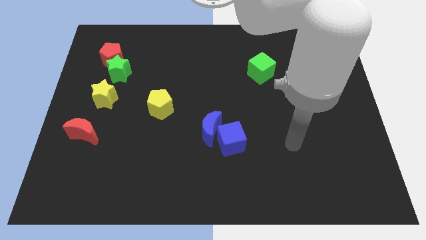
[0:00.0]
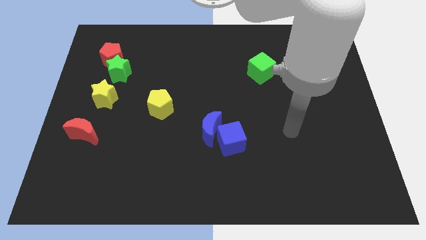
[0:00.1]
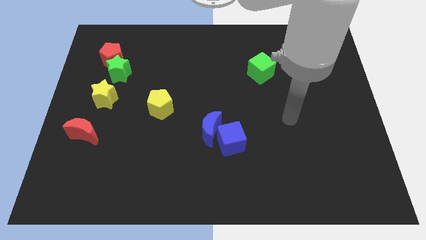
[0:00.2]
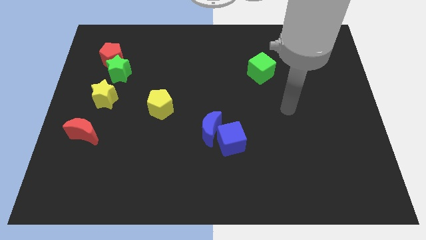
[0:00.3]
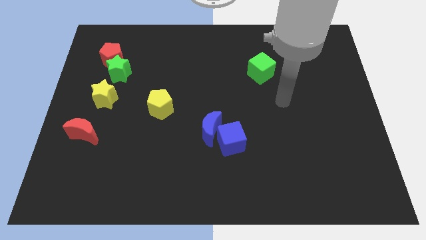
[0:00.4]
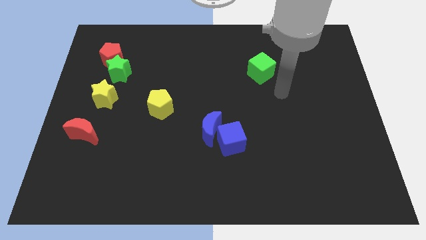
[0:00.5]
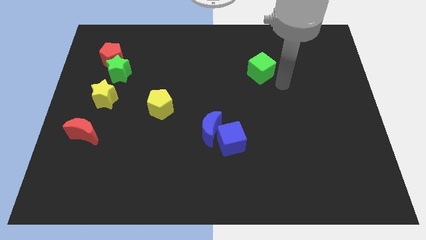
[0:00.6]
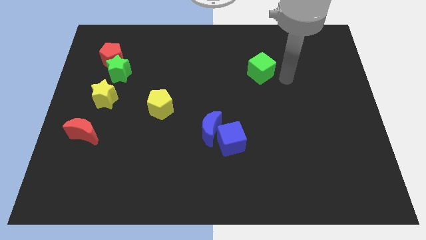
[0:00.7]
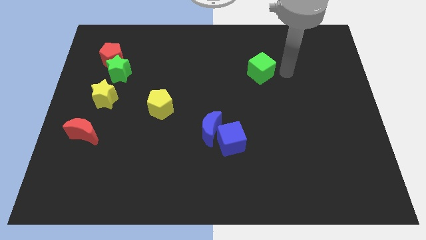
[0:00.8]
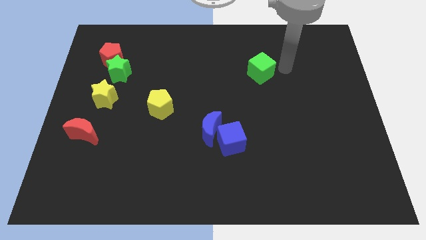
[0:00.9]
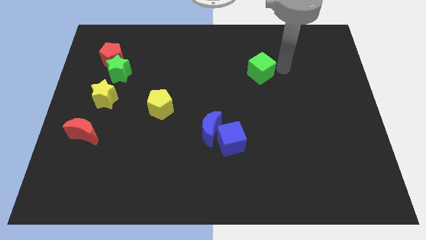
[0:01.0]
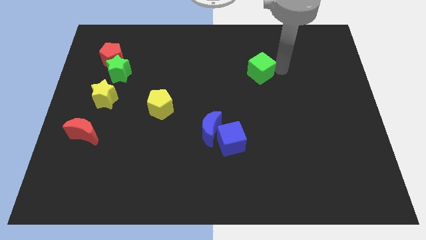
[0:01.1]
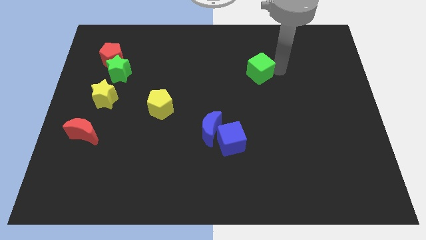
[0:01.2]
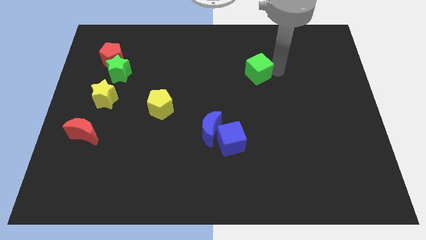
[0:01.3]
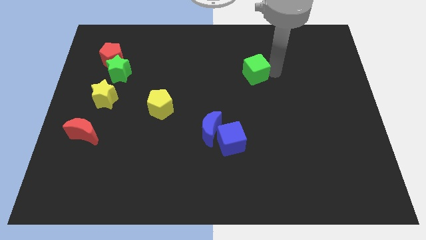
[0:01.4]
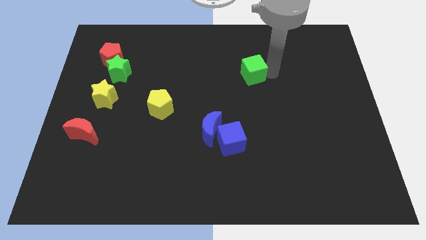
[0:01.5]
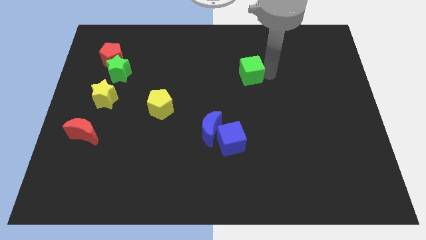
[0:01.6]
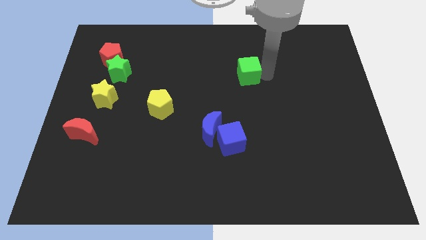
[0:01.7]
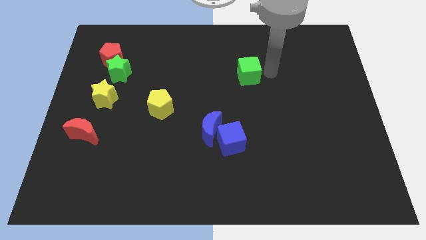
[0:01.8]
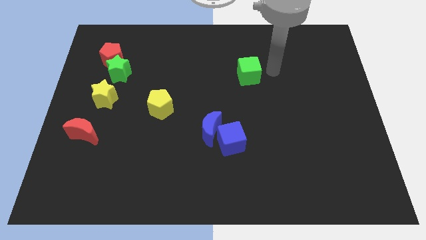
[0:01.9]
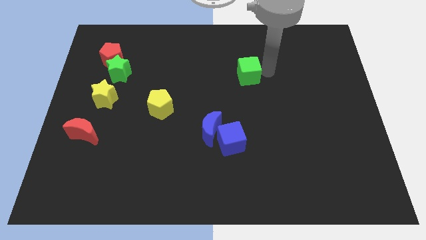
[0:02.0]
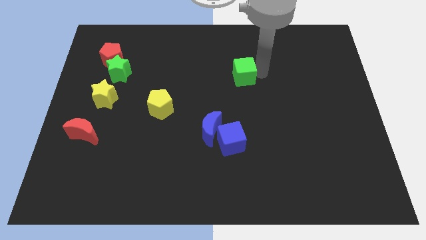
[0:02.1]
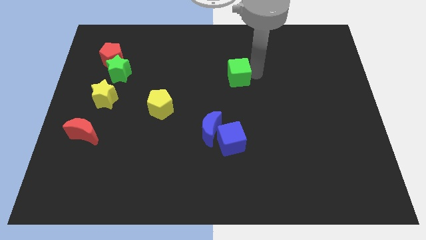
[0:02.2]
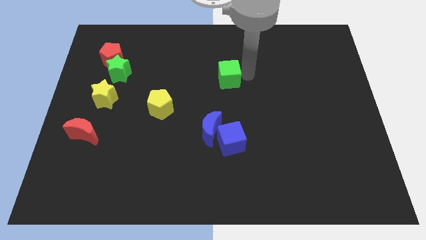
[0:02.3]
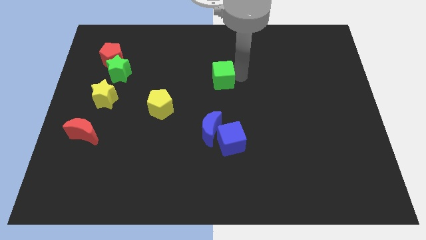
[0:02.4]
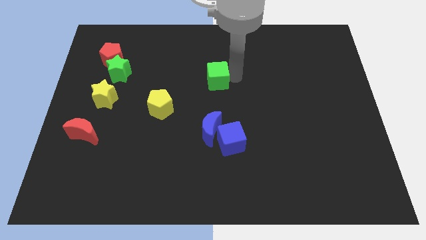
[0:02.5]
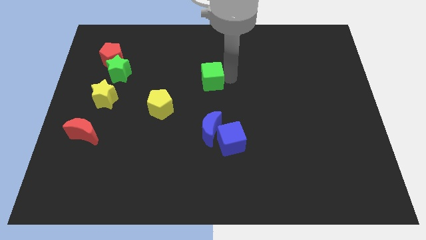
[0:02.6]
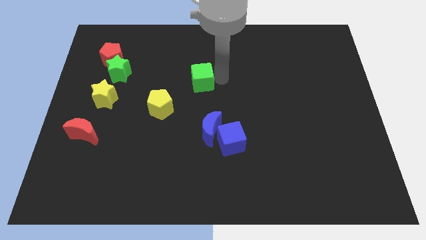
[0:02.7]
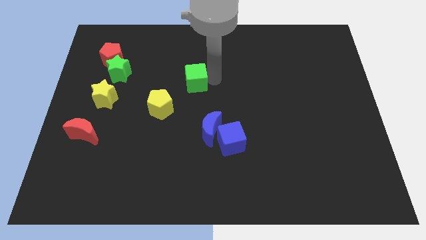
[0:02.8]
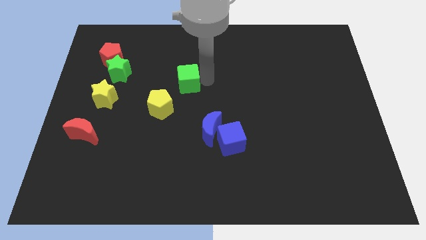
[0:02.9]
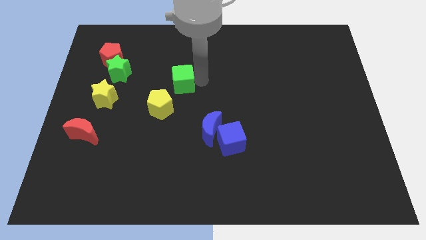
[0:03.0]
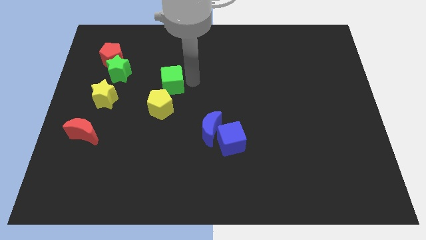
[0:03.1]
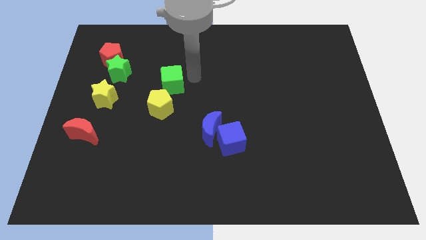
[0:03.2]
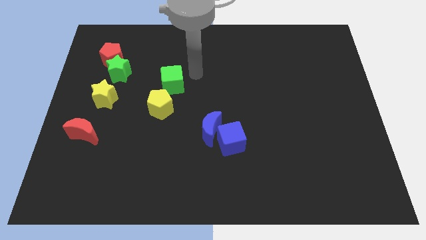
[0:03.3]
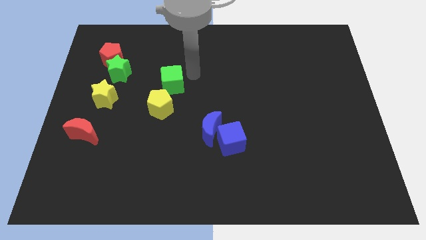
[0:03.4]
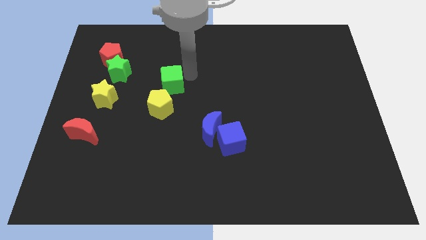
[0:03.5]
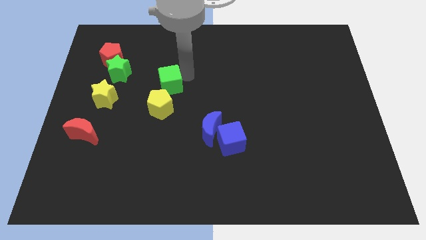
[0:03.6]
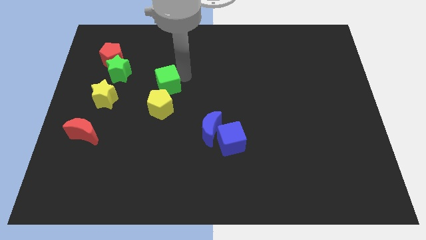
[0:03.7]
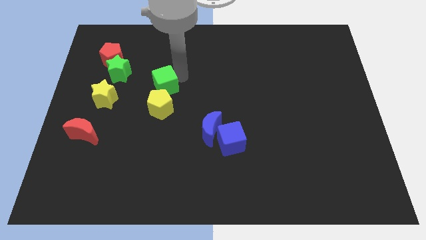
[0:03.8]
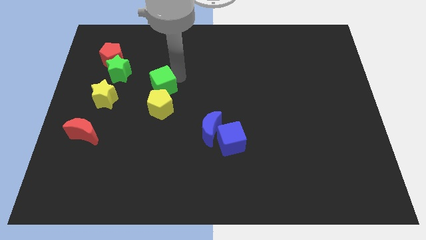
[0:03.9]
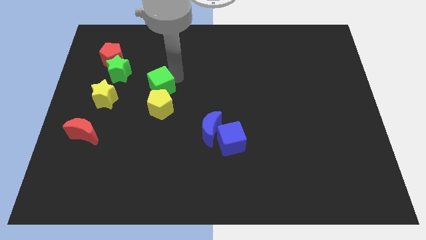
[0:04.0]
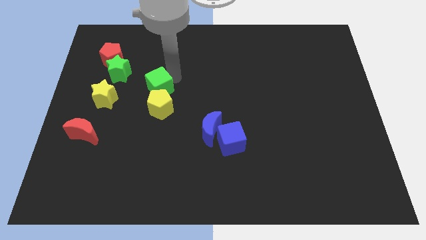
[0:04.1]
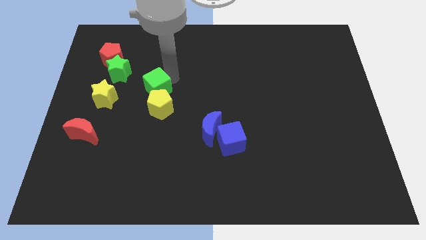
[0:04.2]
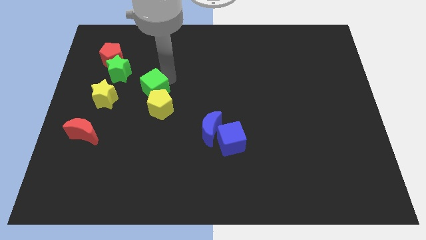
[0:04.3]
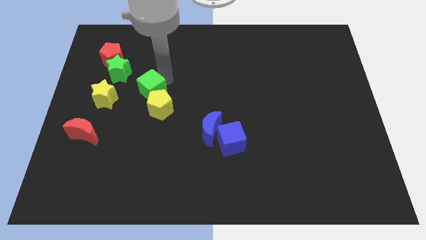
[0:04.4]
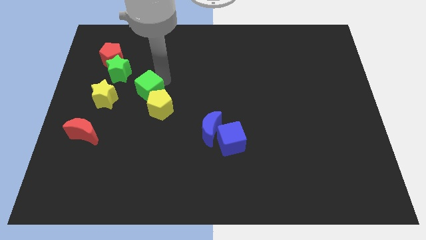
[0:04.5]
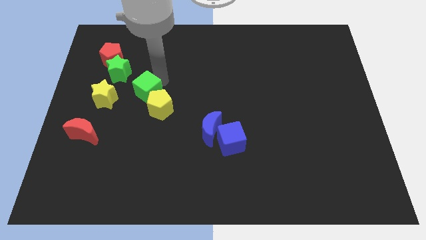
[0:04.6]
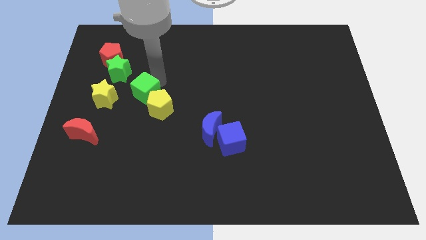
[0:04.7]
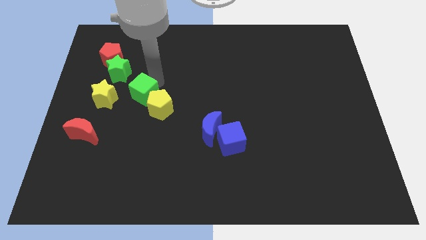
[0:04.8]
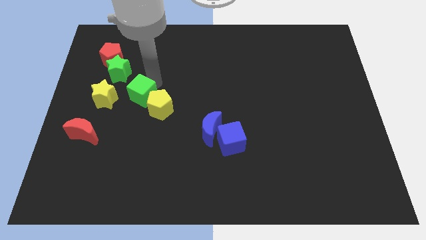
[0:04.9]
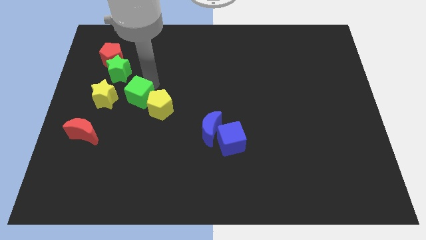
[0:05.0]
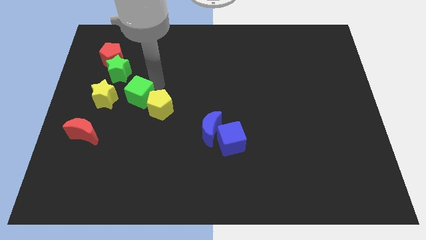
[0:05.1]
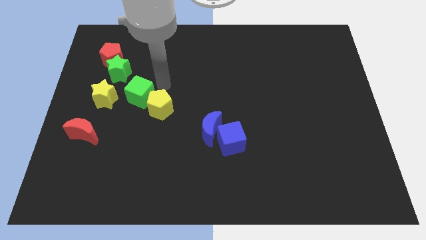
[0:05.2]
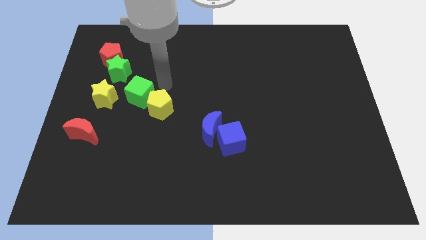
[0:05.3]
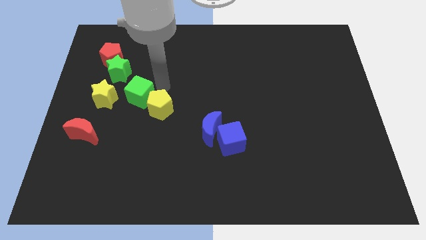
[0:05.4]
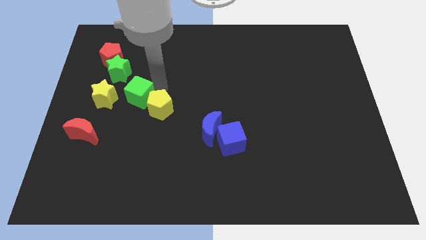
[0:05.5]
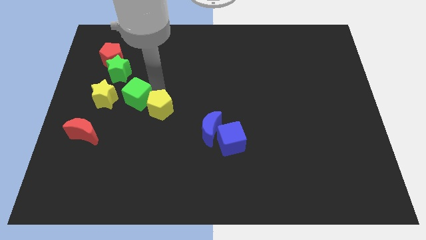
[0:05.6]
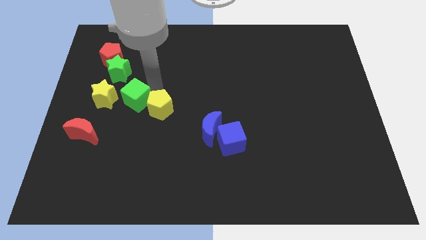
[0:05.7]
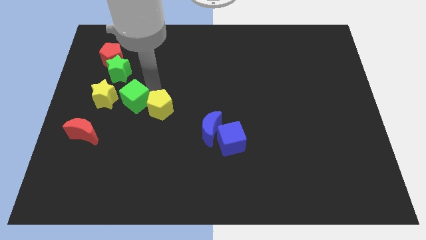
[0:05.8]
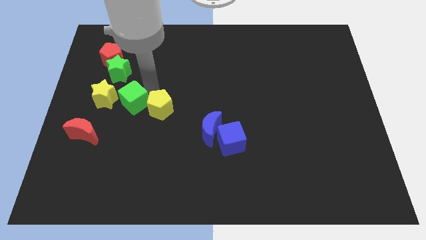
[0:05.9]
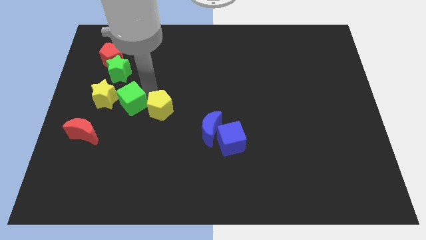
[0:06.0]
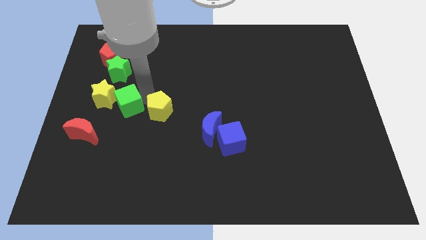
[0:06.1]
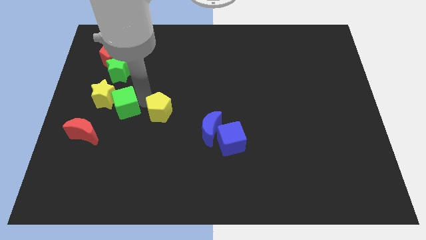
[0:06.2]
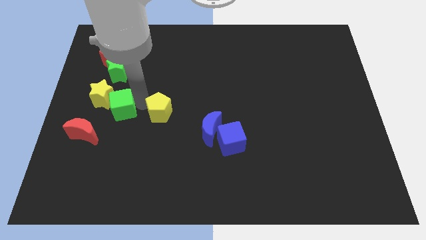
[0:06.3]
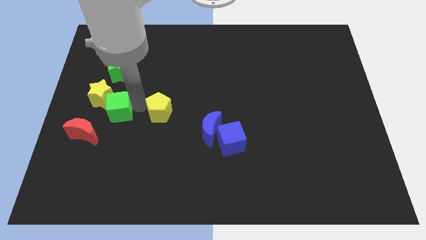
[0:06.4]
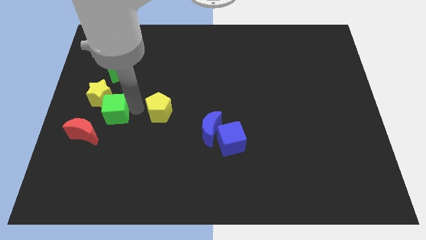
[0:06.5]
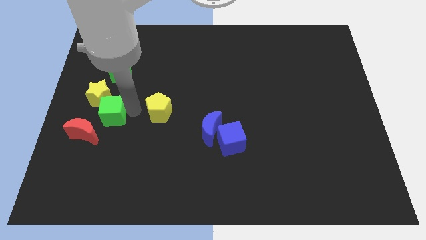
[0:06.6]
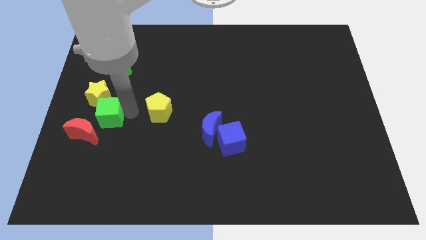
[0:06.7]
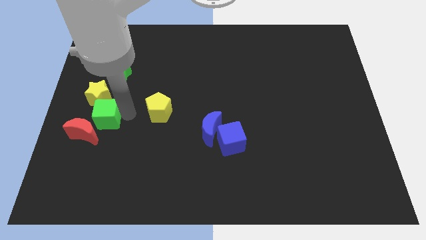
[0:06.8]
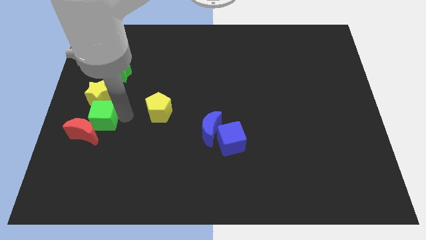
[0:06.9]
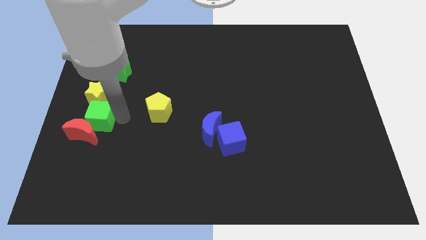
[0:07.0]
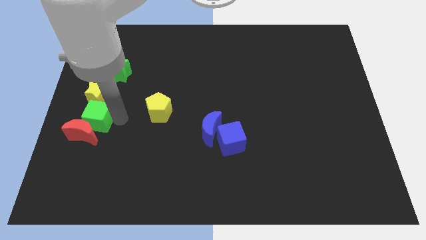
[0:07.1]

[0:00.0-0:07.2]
put the green cube to the center left
